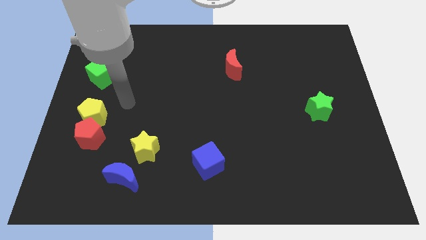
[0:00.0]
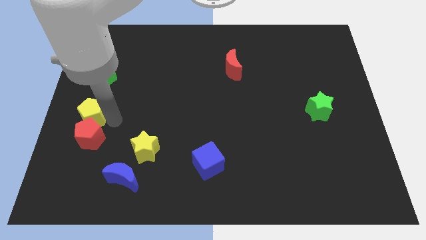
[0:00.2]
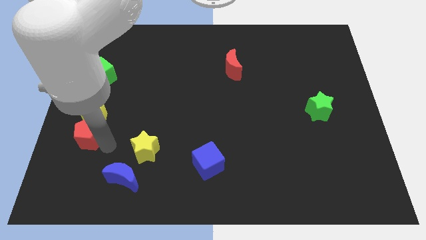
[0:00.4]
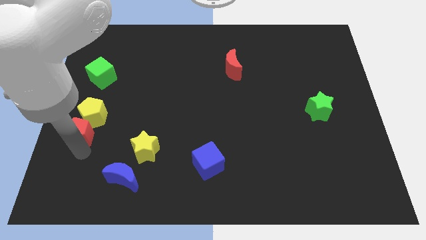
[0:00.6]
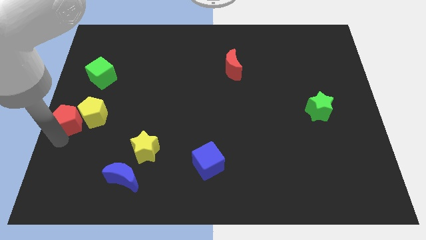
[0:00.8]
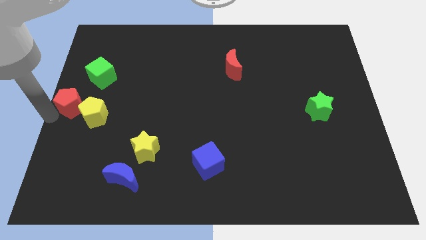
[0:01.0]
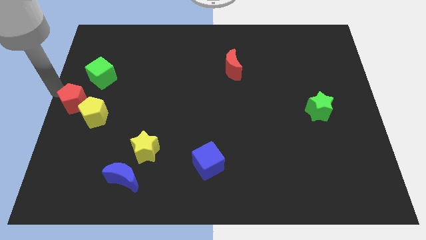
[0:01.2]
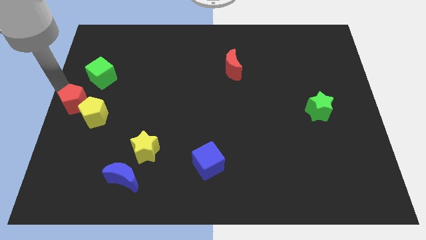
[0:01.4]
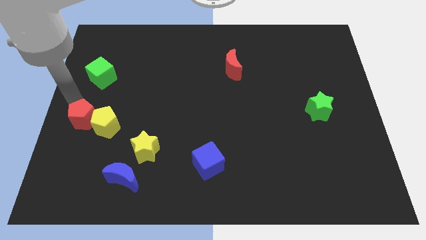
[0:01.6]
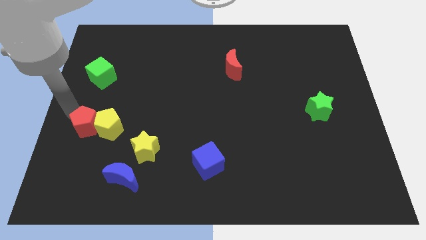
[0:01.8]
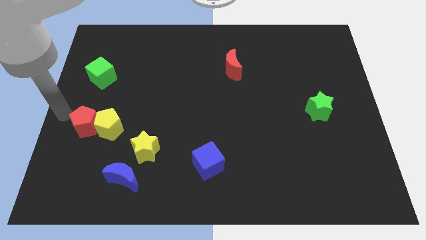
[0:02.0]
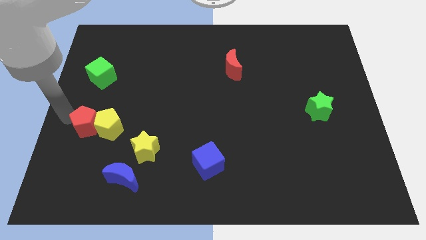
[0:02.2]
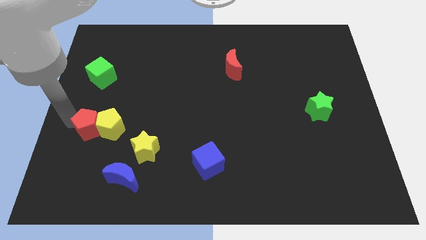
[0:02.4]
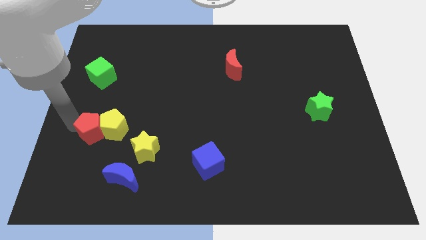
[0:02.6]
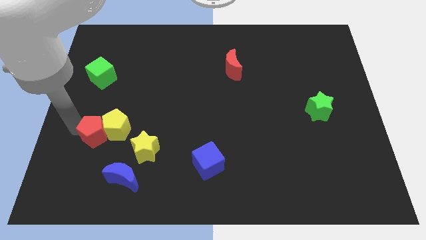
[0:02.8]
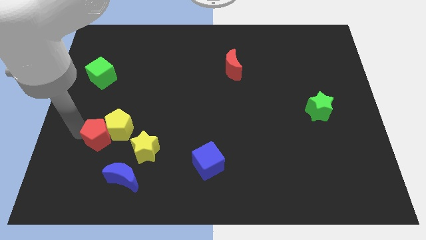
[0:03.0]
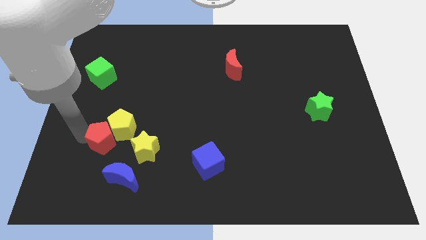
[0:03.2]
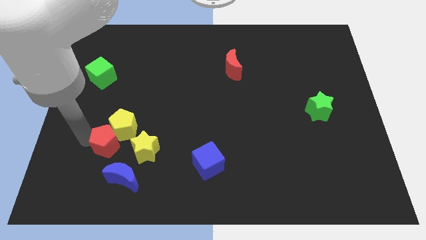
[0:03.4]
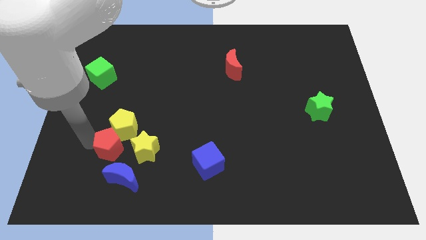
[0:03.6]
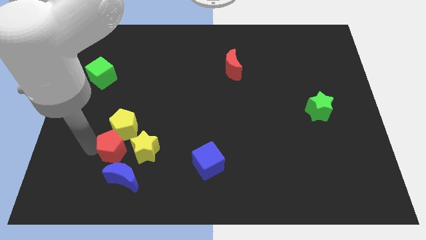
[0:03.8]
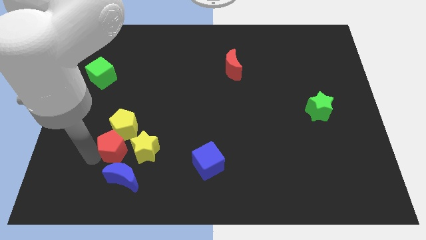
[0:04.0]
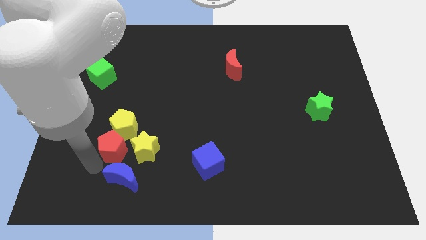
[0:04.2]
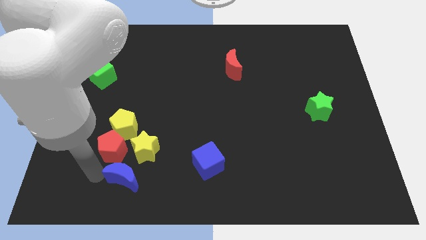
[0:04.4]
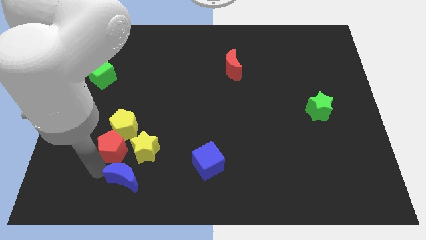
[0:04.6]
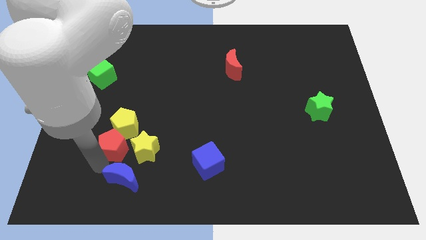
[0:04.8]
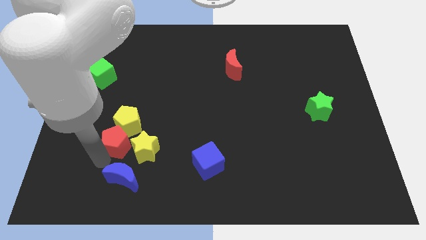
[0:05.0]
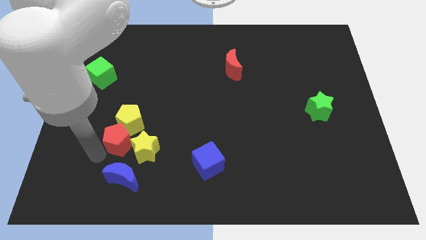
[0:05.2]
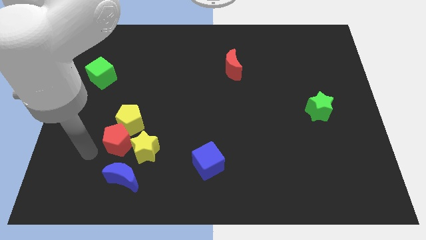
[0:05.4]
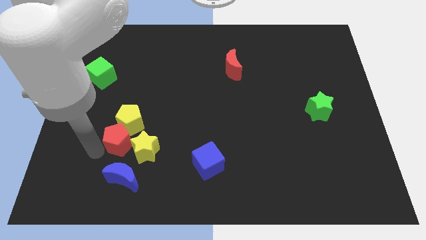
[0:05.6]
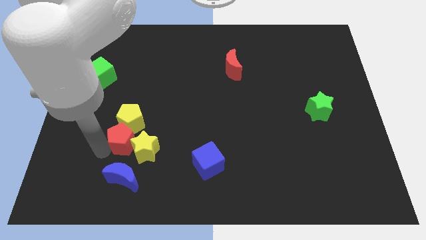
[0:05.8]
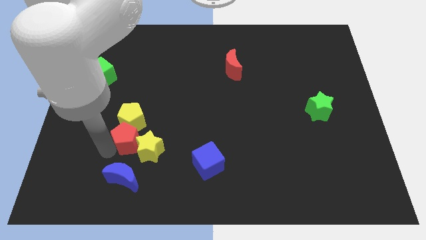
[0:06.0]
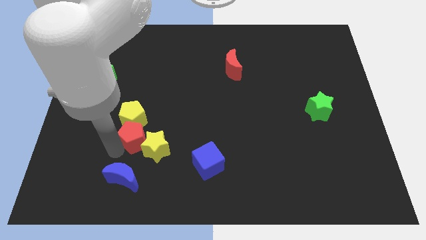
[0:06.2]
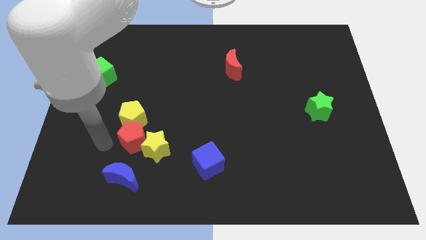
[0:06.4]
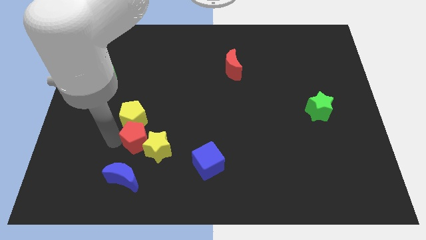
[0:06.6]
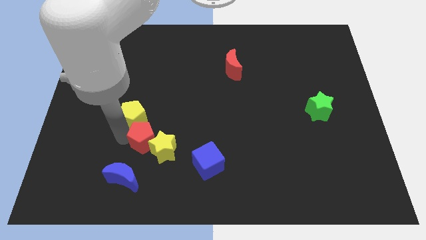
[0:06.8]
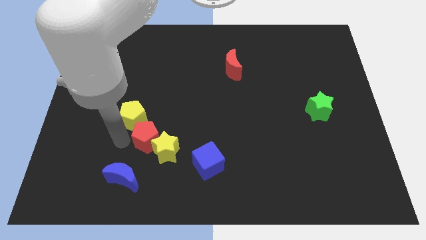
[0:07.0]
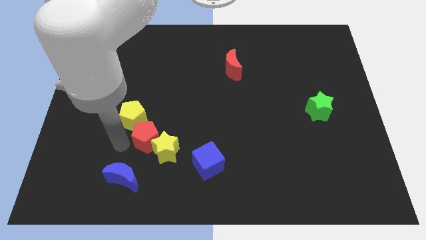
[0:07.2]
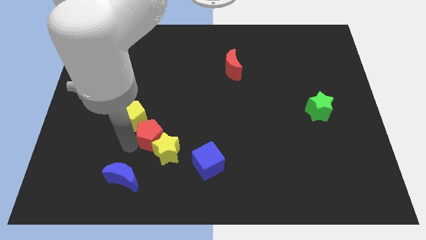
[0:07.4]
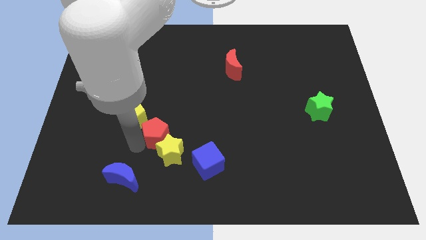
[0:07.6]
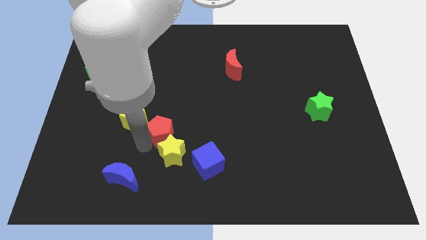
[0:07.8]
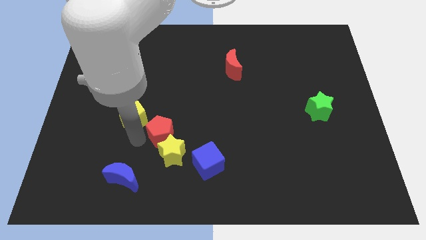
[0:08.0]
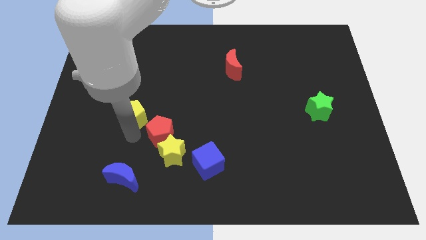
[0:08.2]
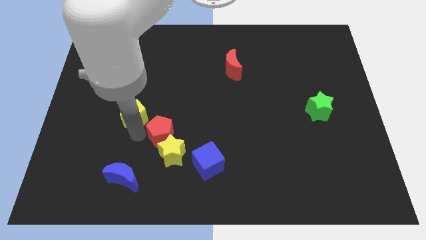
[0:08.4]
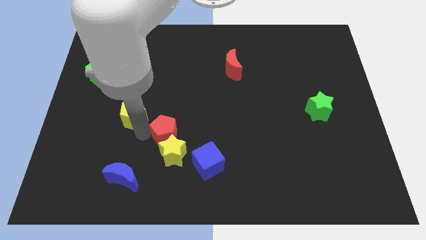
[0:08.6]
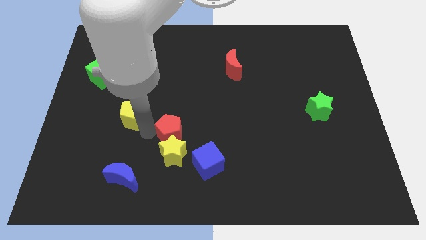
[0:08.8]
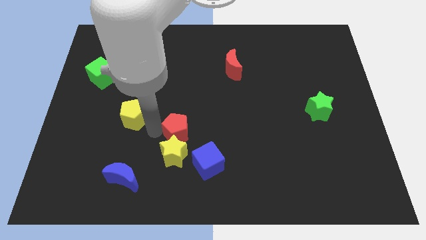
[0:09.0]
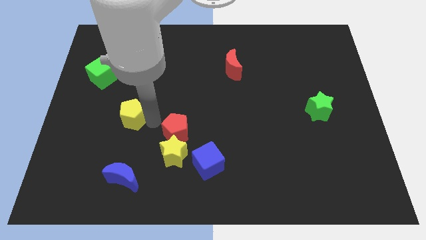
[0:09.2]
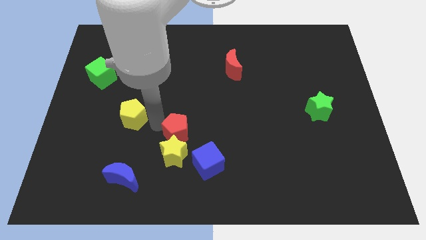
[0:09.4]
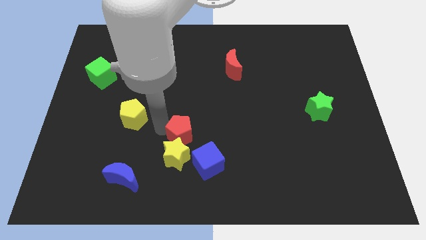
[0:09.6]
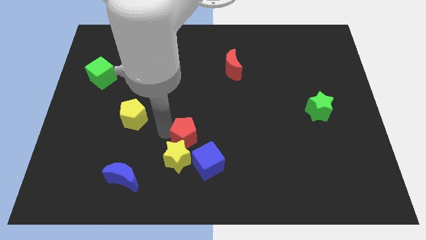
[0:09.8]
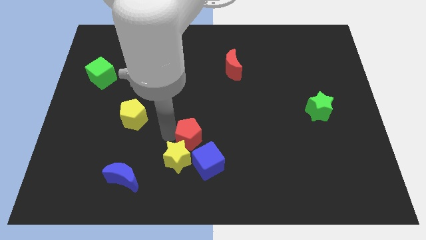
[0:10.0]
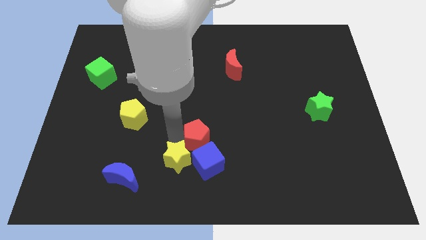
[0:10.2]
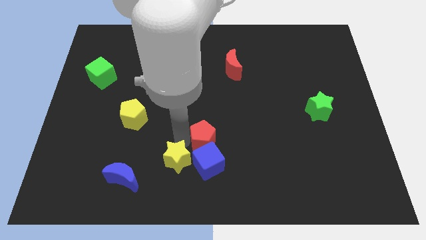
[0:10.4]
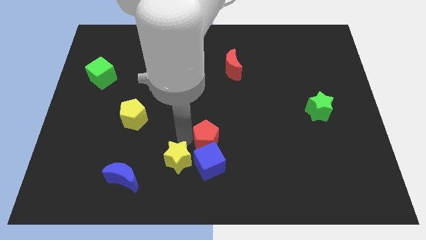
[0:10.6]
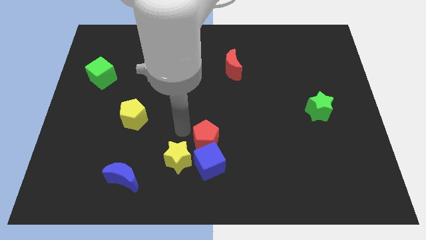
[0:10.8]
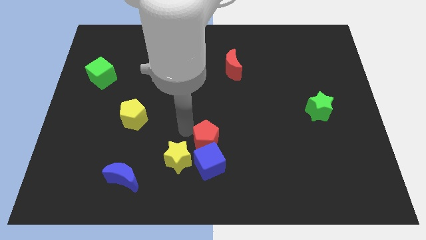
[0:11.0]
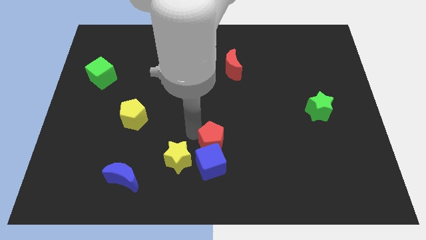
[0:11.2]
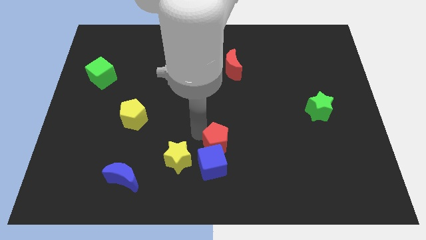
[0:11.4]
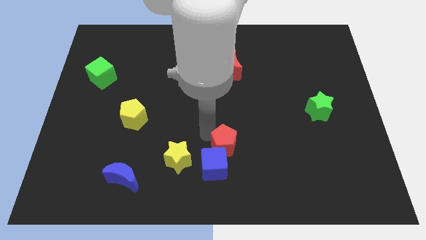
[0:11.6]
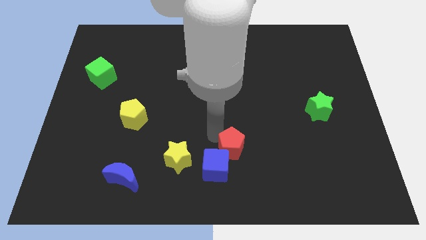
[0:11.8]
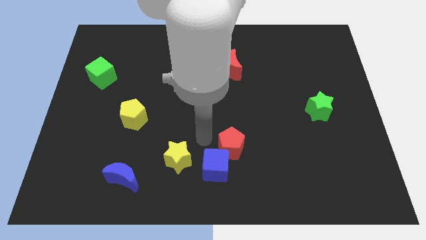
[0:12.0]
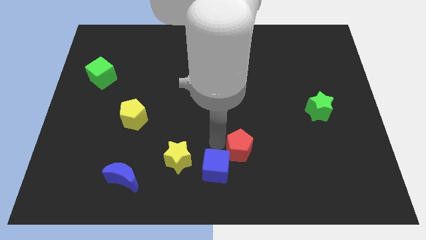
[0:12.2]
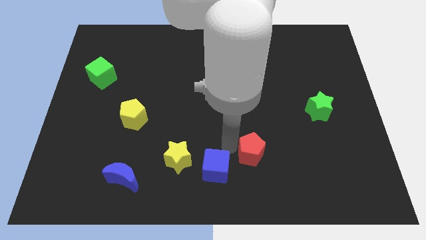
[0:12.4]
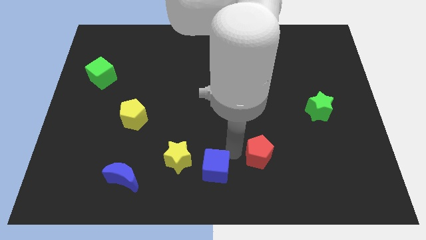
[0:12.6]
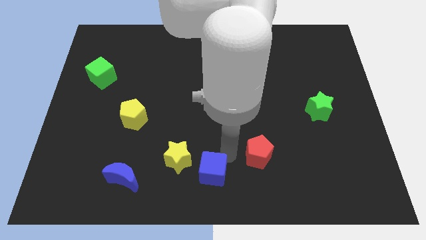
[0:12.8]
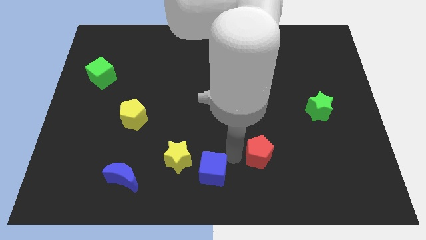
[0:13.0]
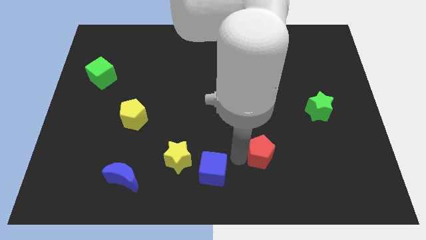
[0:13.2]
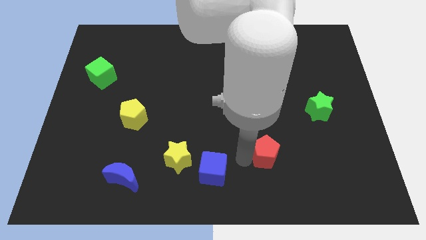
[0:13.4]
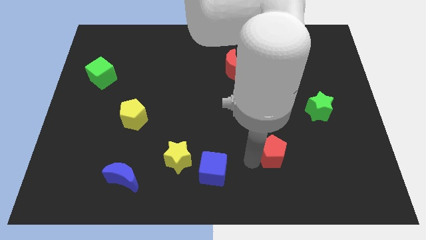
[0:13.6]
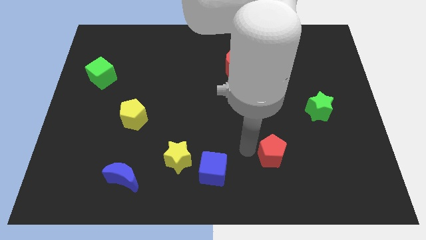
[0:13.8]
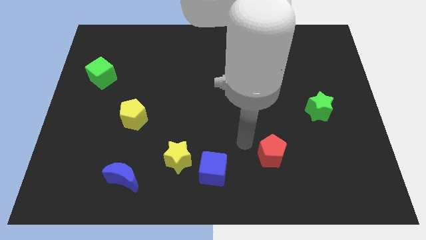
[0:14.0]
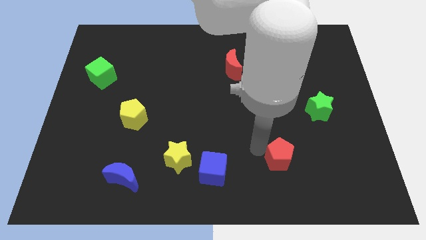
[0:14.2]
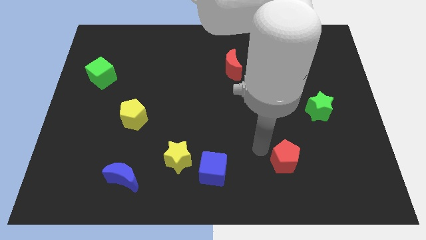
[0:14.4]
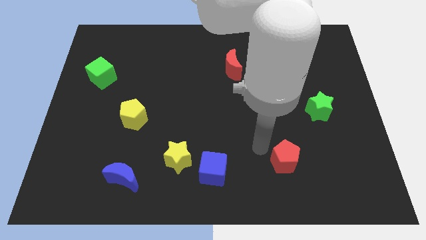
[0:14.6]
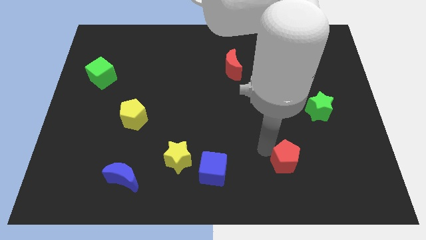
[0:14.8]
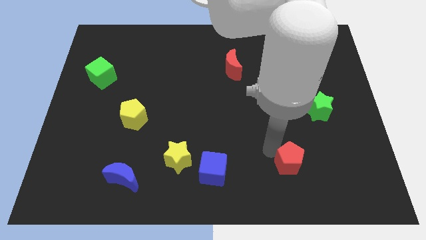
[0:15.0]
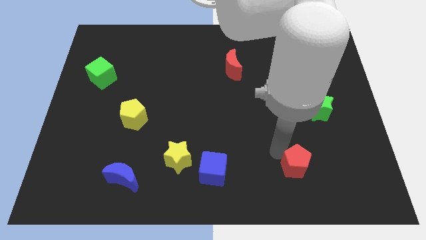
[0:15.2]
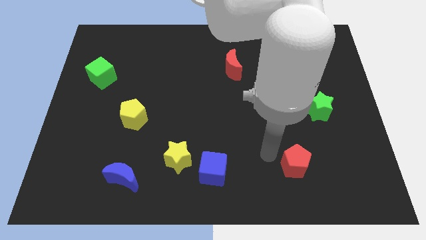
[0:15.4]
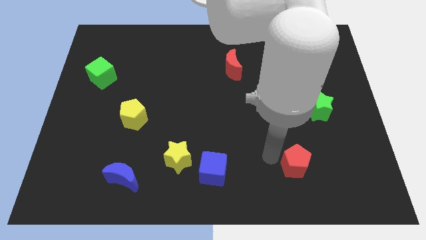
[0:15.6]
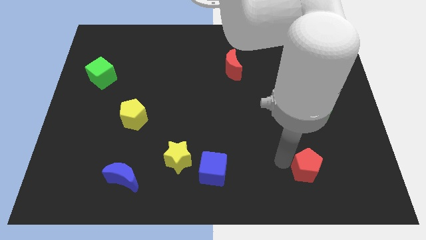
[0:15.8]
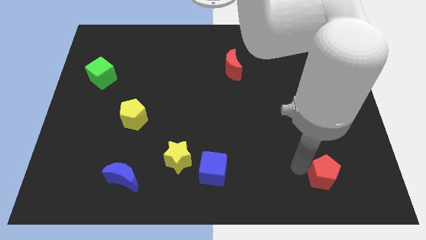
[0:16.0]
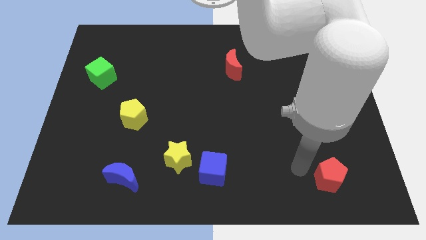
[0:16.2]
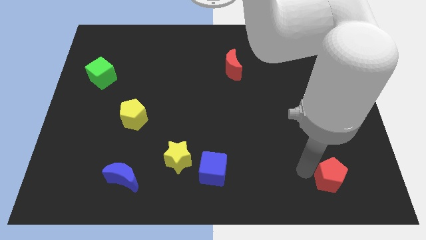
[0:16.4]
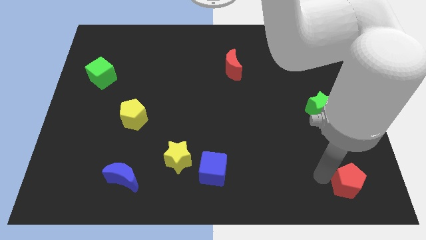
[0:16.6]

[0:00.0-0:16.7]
slide the red pentagon to the bottom right corner
